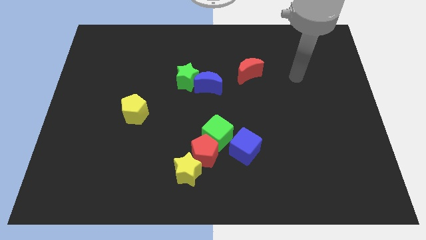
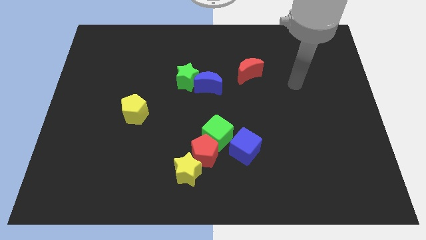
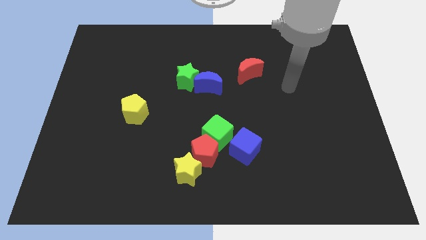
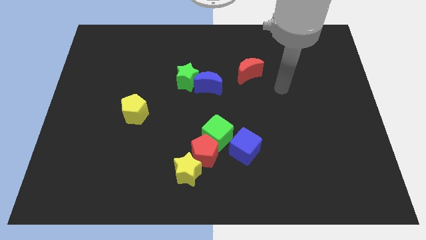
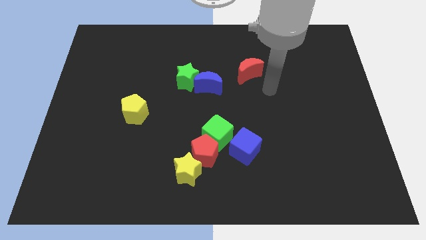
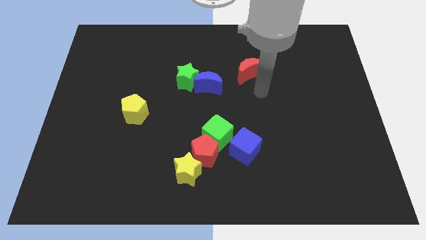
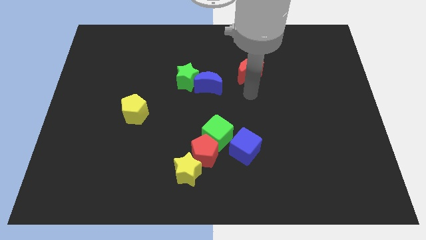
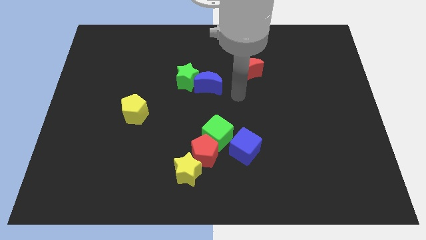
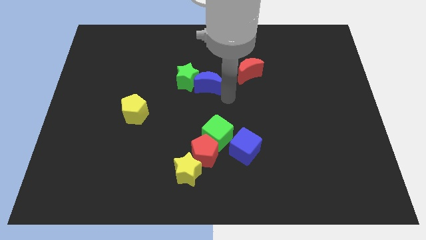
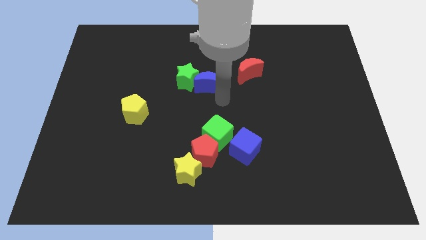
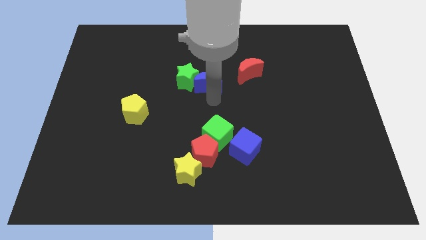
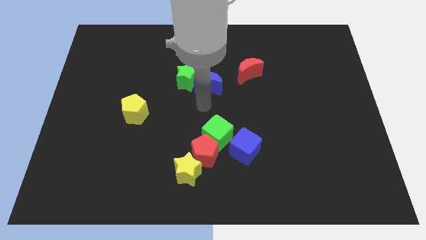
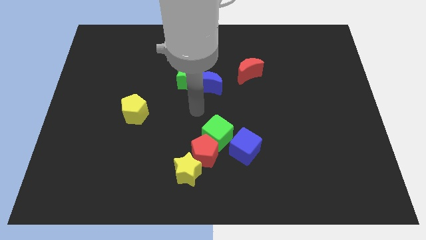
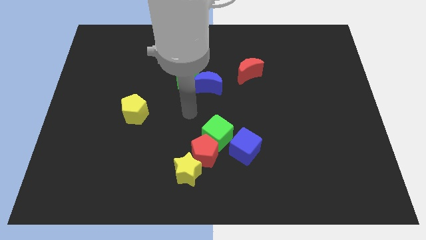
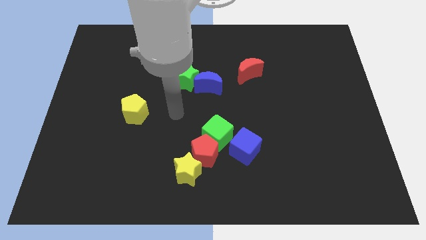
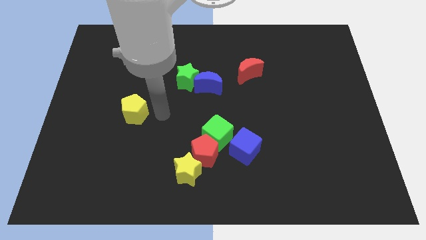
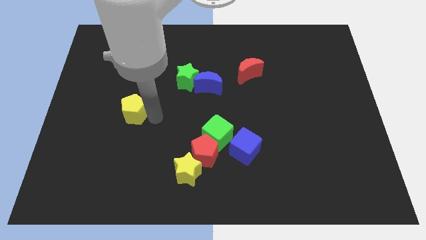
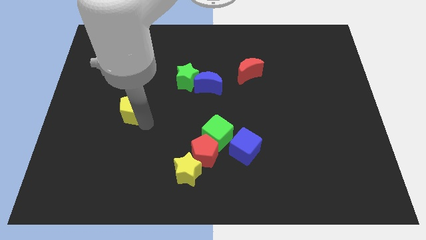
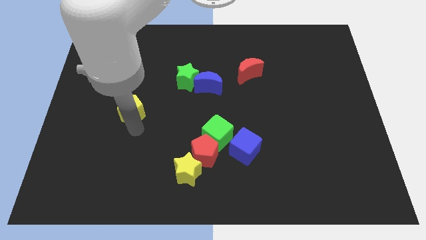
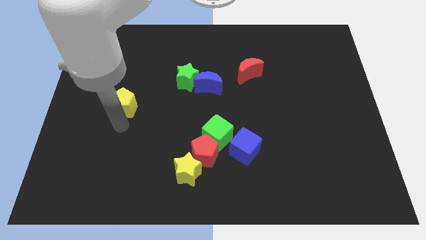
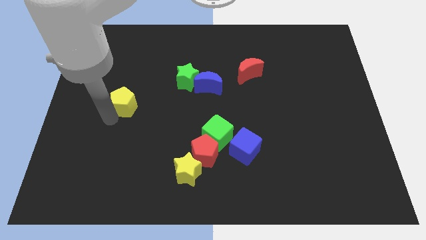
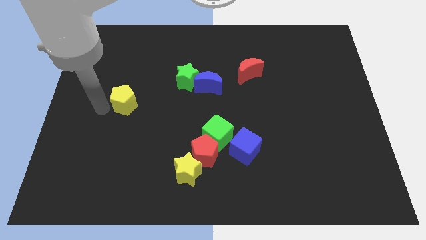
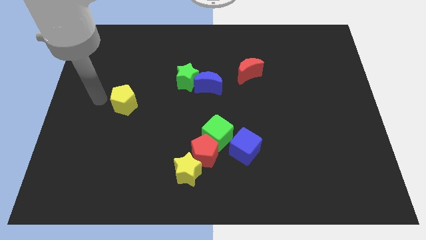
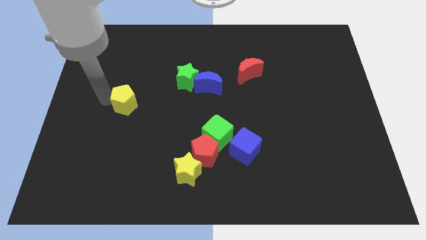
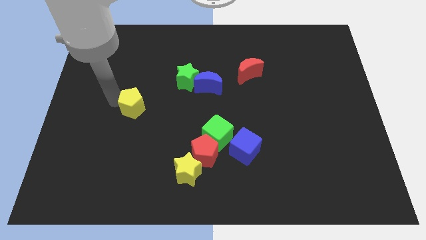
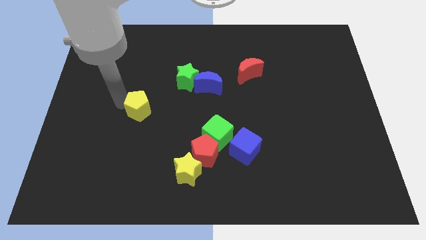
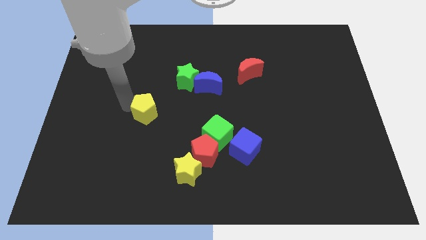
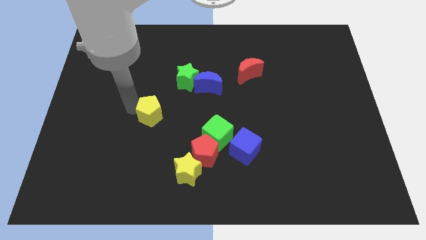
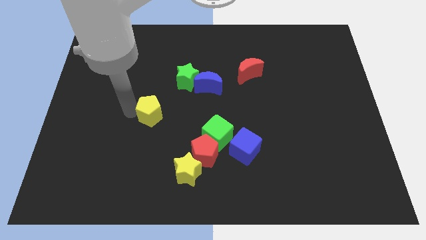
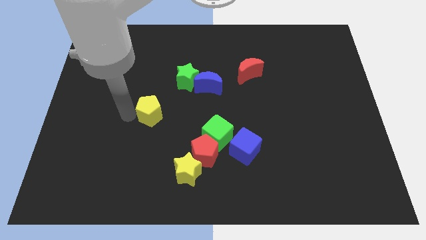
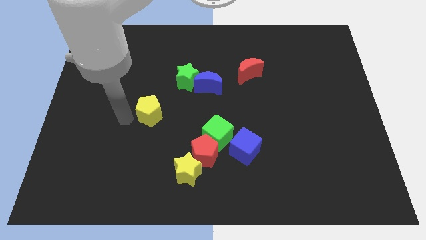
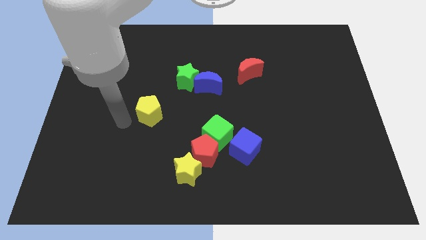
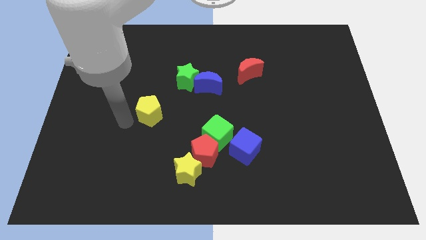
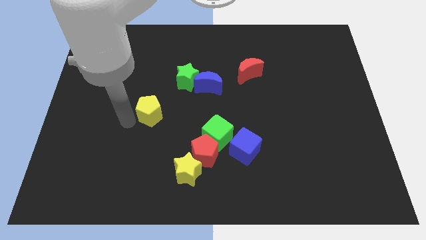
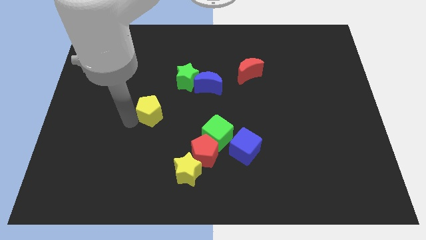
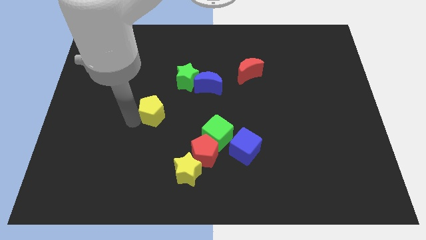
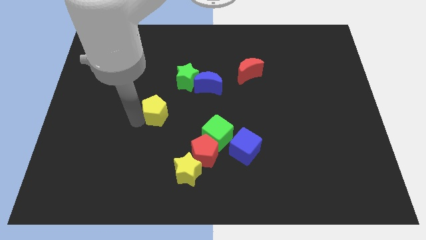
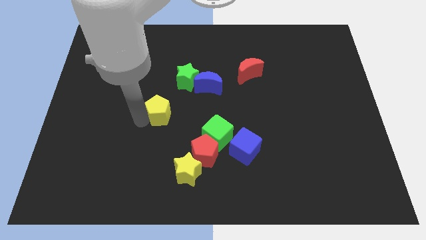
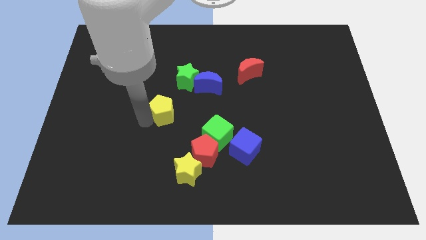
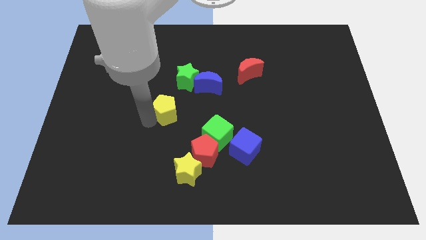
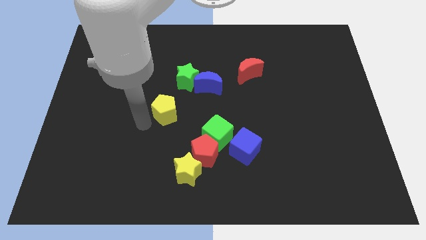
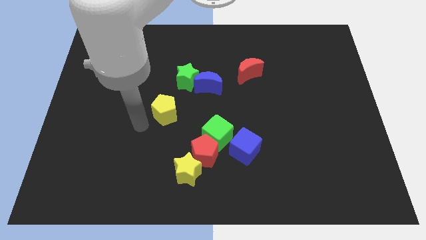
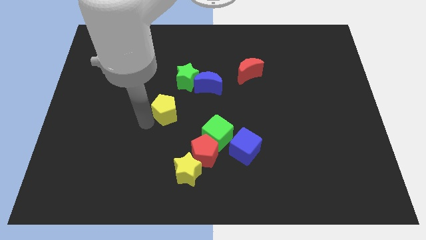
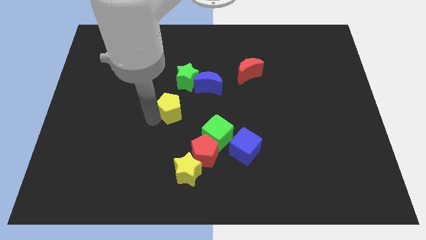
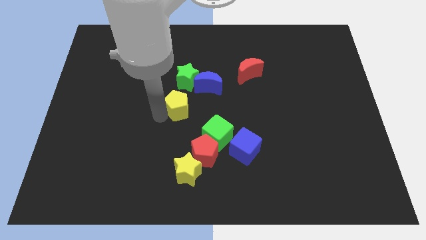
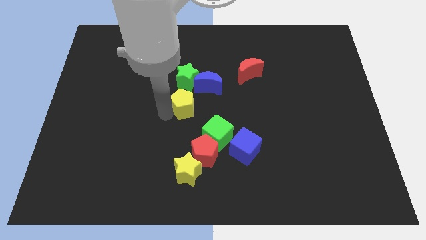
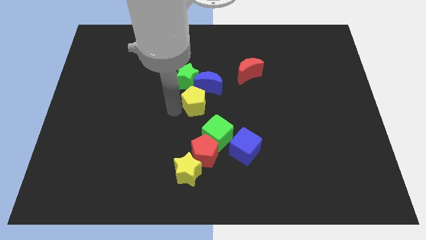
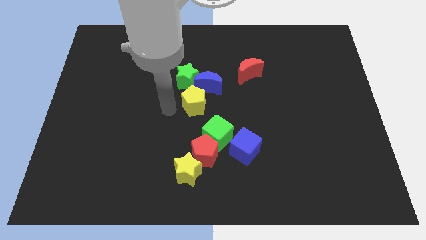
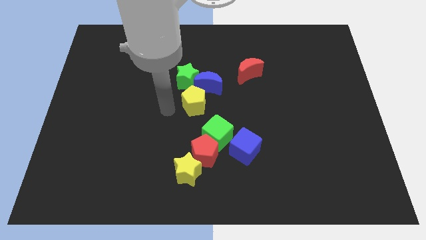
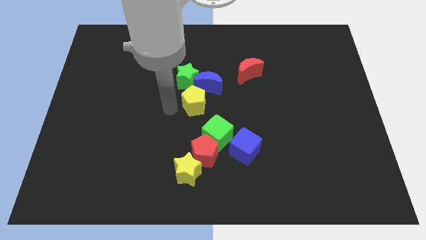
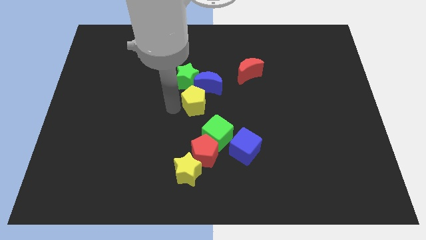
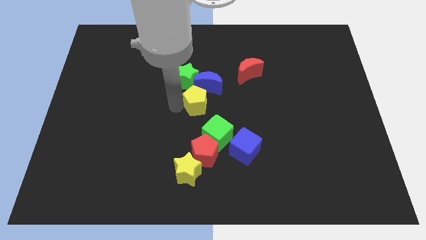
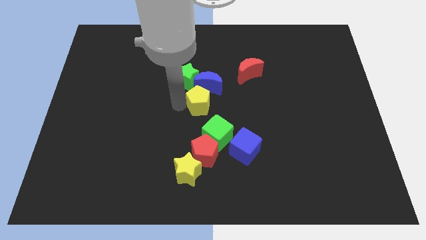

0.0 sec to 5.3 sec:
move the yellow pentagon to the top side of the green cube

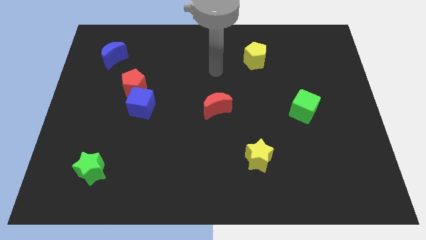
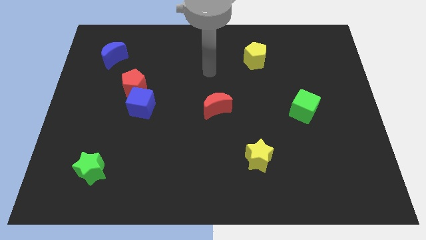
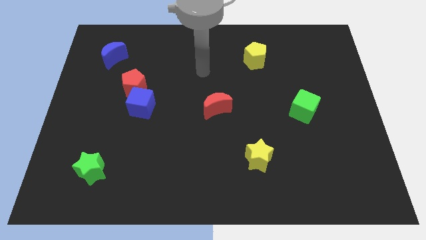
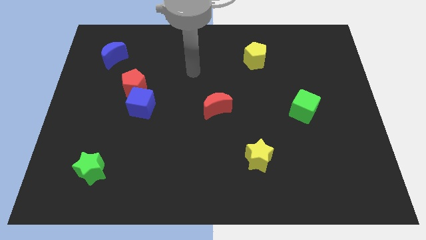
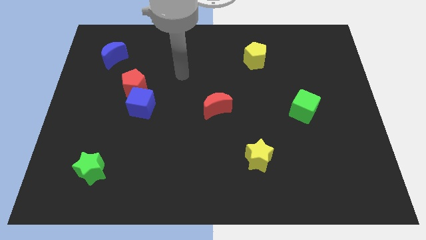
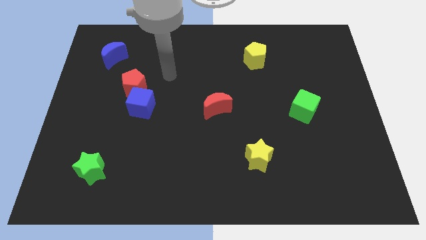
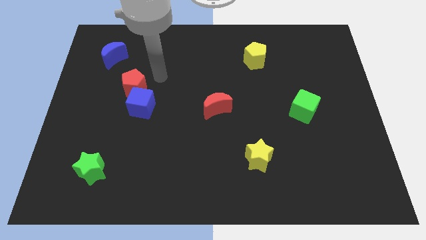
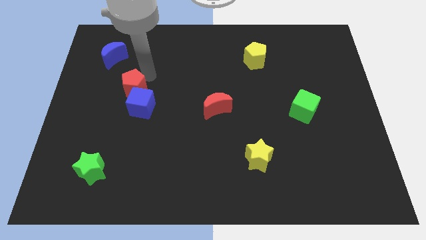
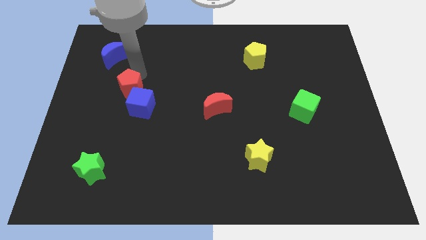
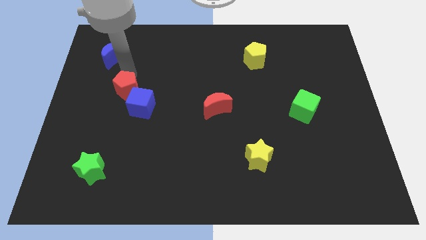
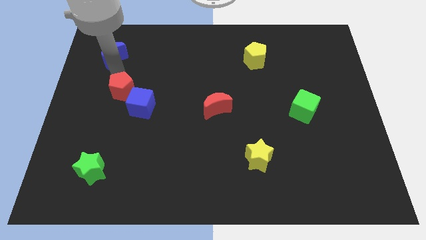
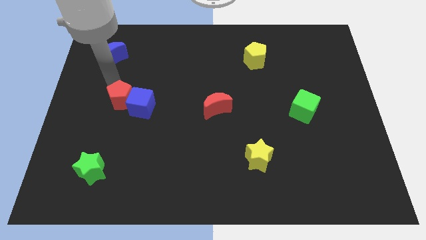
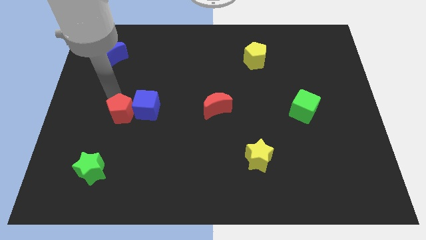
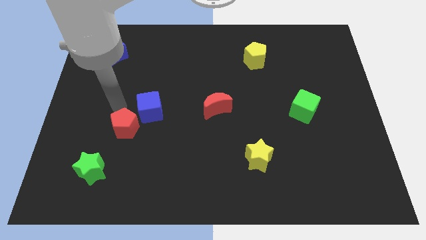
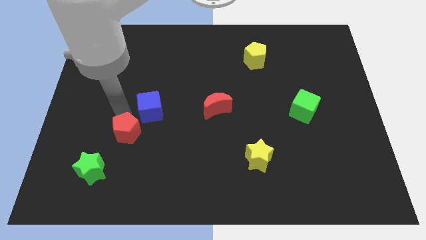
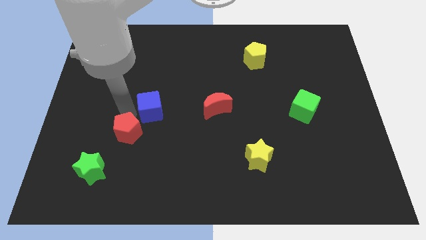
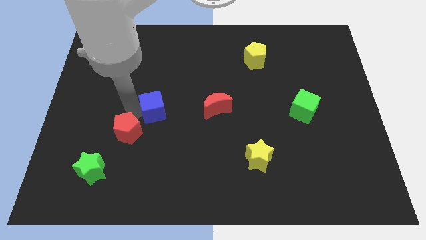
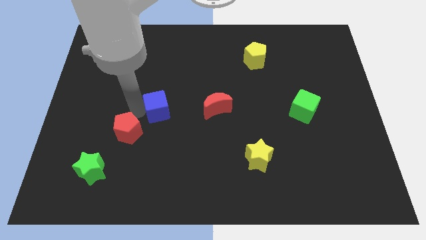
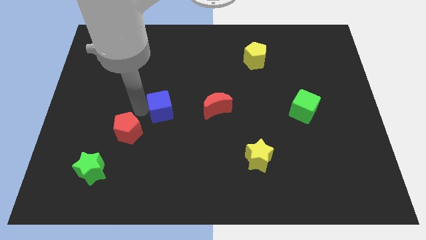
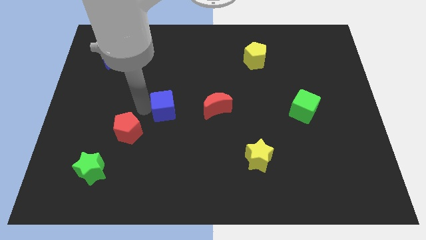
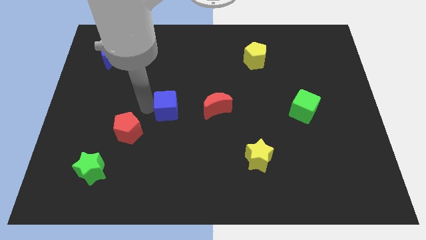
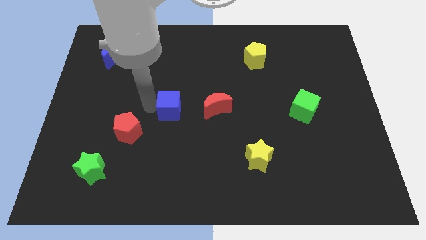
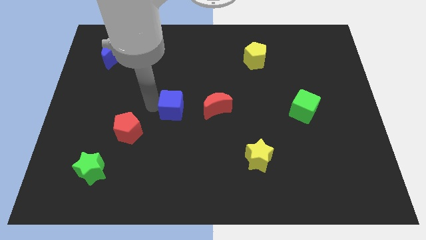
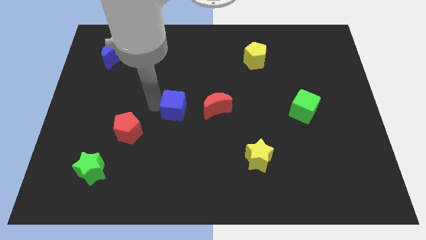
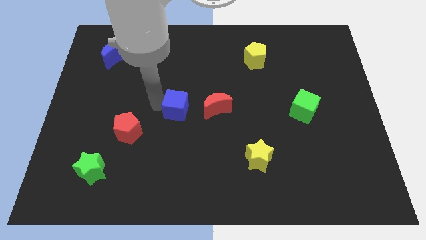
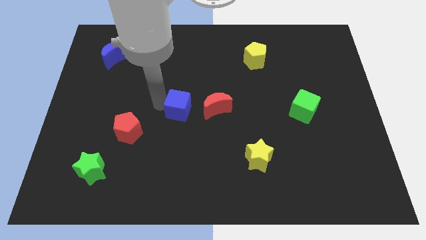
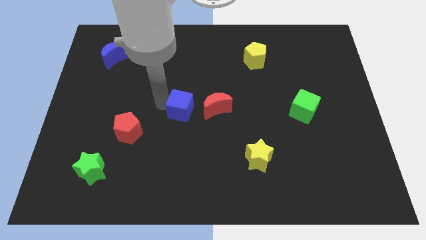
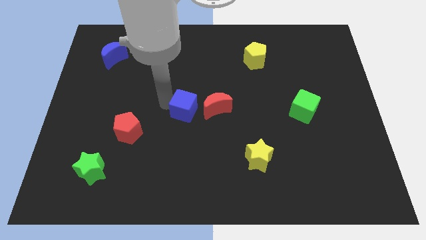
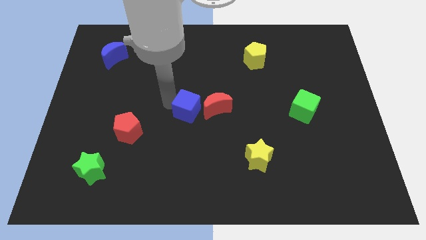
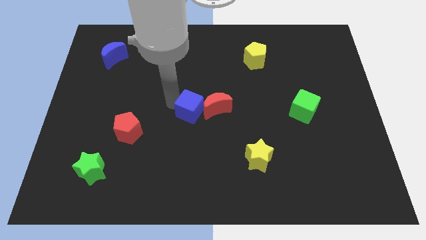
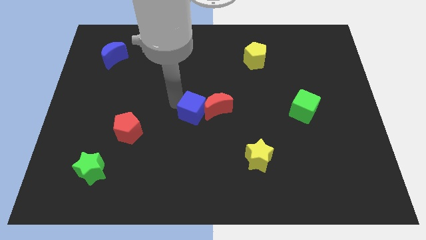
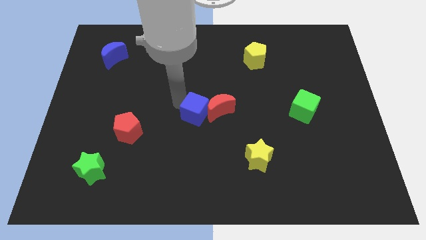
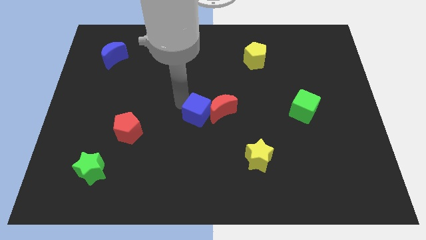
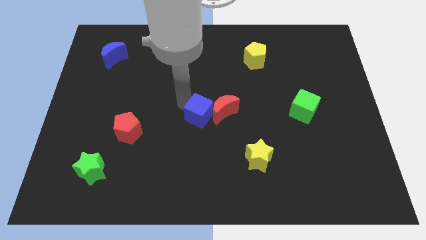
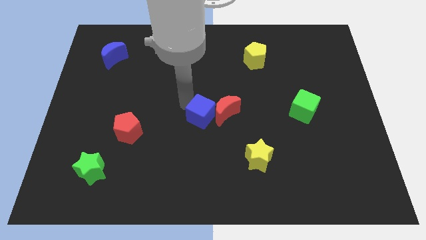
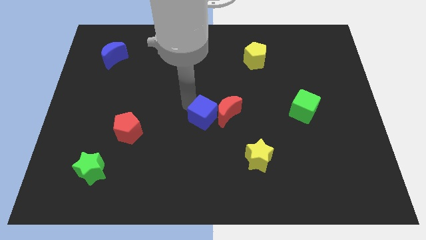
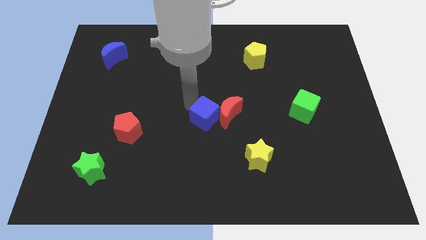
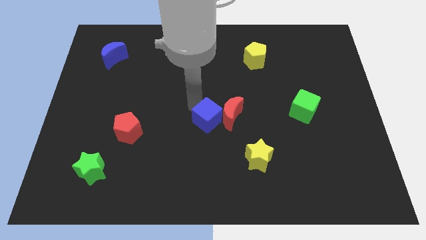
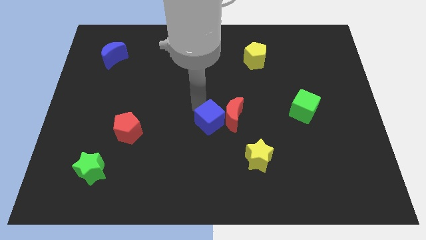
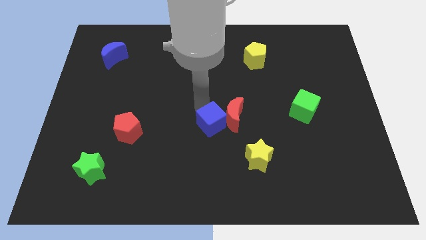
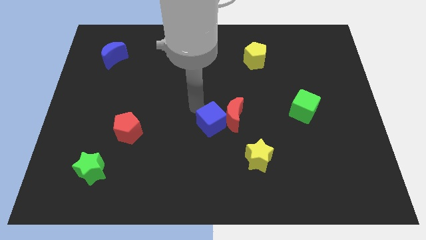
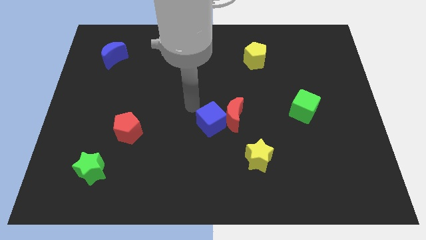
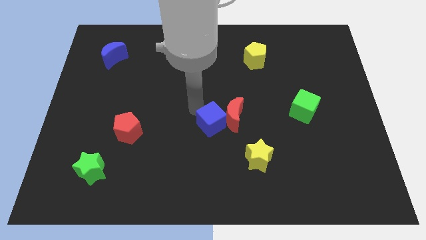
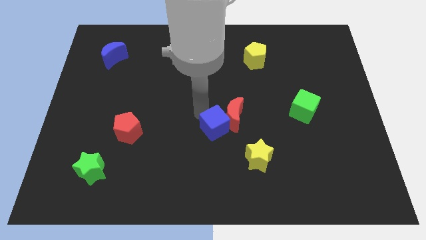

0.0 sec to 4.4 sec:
move the blue cube diagonally up and to the left of the yellow star
